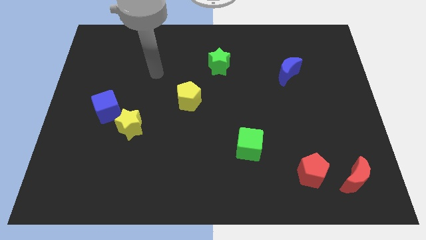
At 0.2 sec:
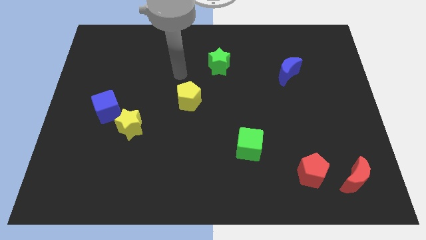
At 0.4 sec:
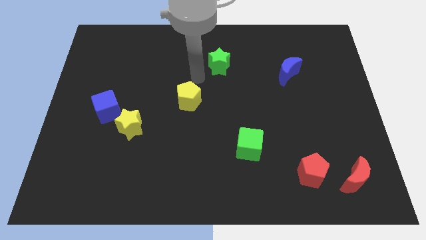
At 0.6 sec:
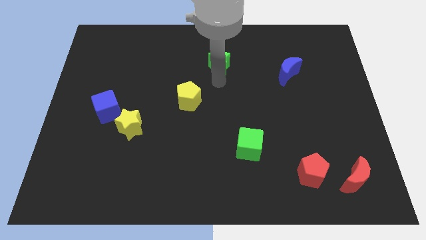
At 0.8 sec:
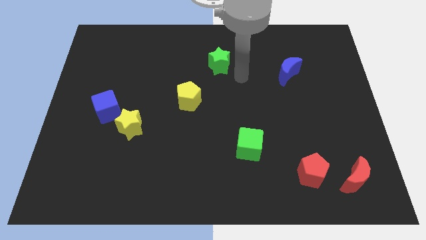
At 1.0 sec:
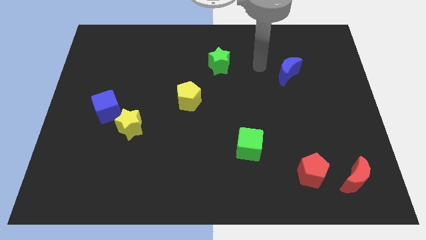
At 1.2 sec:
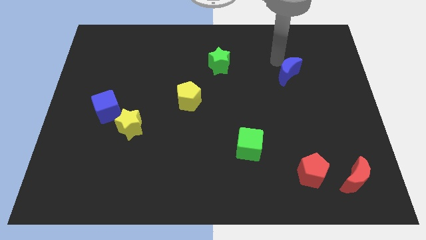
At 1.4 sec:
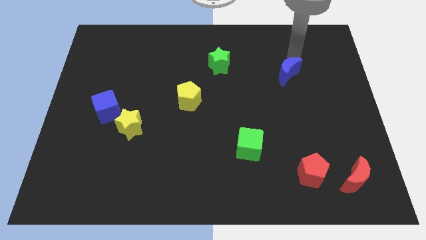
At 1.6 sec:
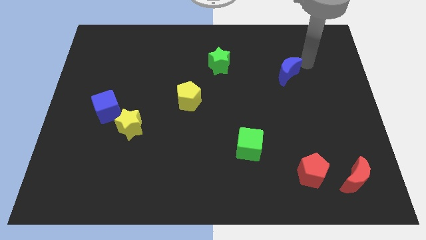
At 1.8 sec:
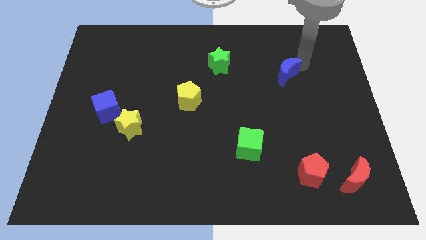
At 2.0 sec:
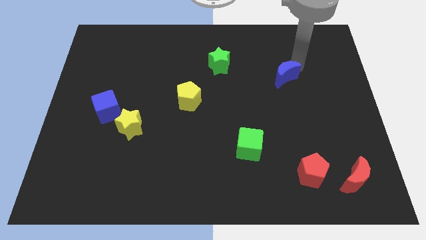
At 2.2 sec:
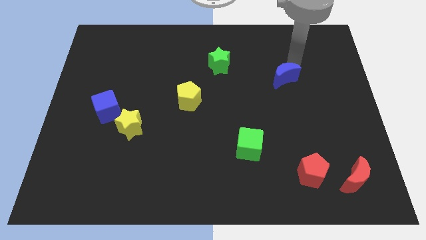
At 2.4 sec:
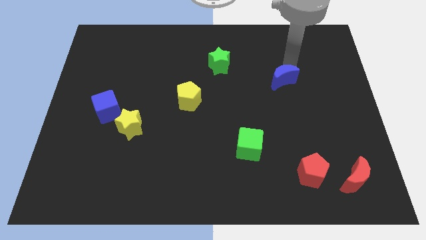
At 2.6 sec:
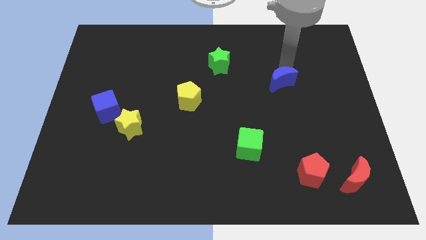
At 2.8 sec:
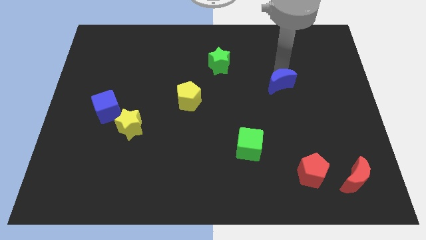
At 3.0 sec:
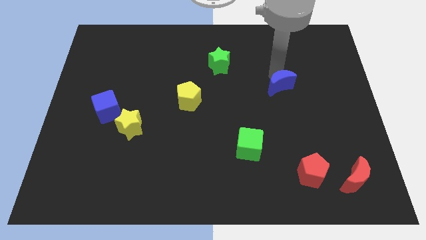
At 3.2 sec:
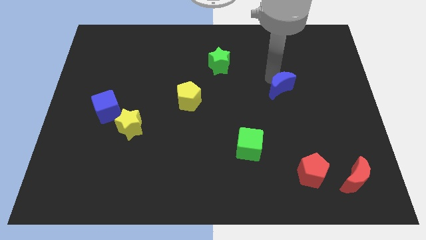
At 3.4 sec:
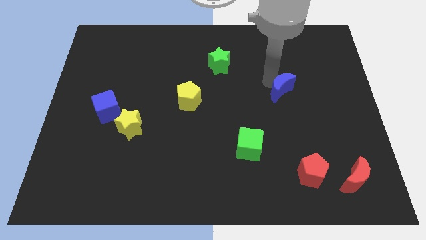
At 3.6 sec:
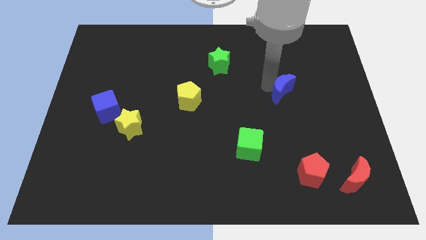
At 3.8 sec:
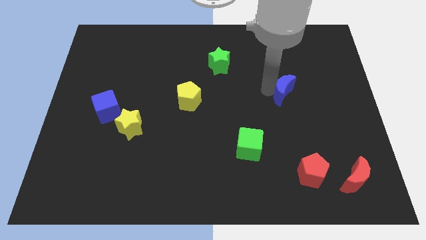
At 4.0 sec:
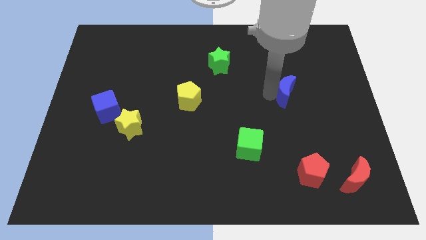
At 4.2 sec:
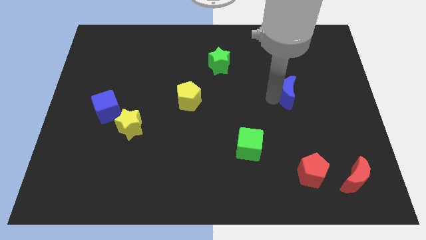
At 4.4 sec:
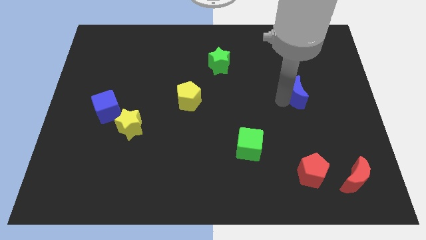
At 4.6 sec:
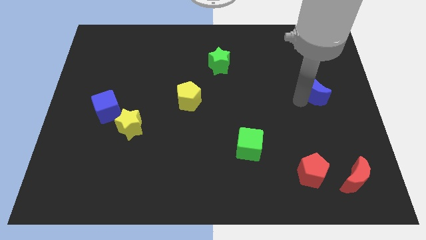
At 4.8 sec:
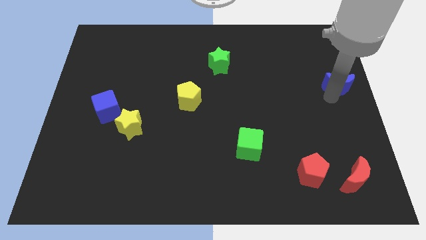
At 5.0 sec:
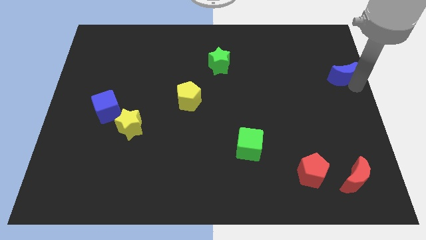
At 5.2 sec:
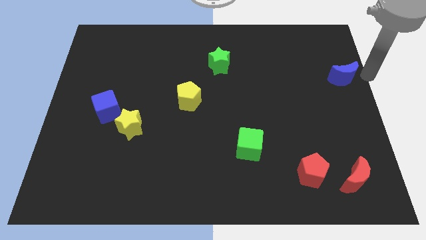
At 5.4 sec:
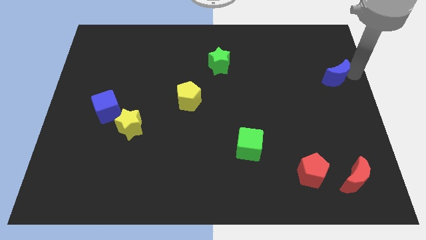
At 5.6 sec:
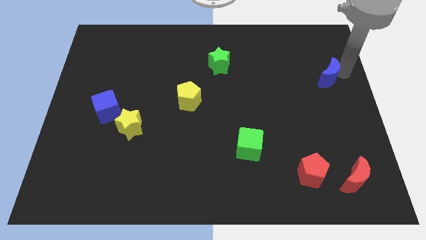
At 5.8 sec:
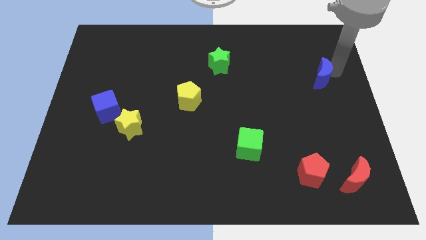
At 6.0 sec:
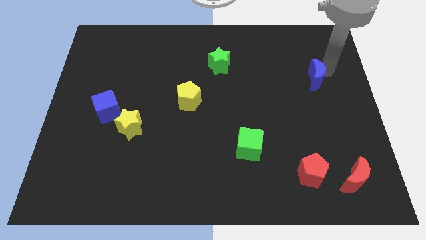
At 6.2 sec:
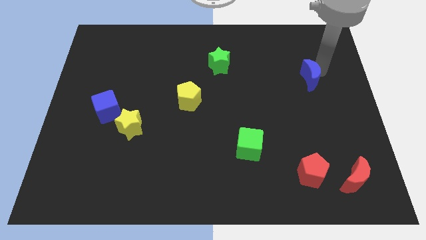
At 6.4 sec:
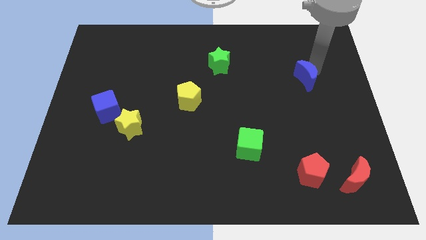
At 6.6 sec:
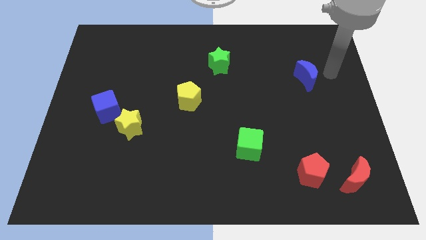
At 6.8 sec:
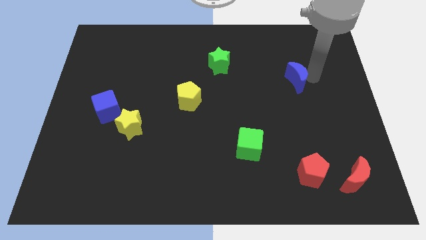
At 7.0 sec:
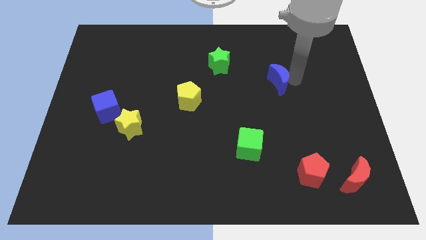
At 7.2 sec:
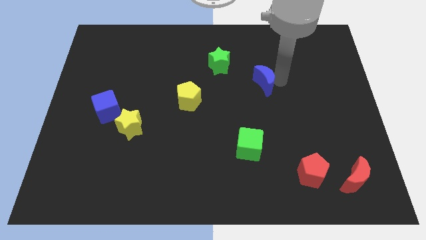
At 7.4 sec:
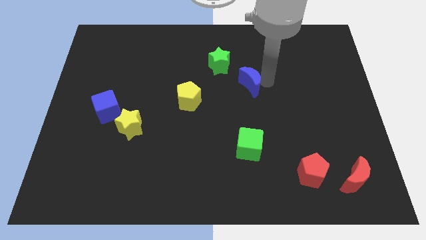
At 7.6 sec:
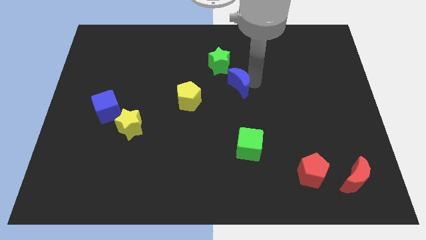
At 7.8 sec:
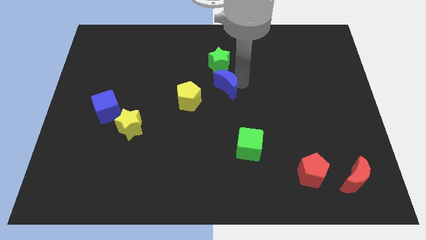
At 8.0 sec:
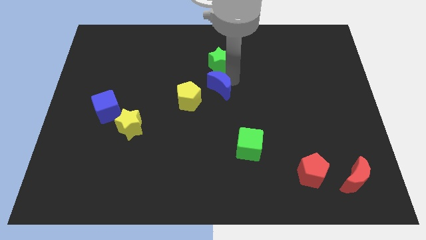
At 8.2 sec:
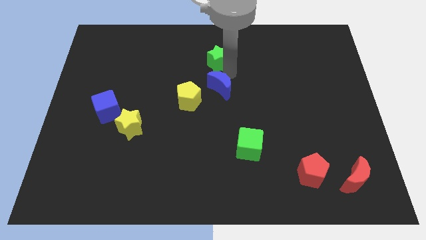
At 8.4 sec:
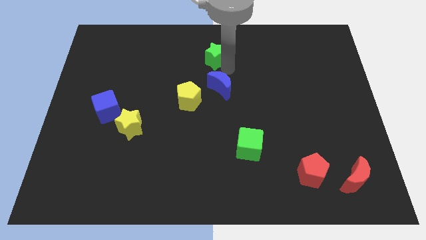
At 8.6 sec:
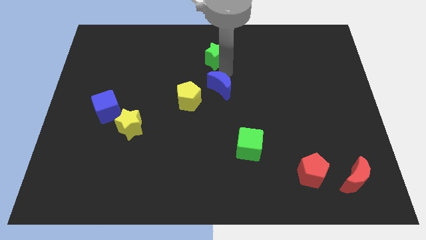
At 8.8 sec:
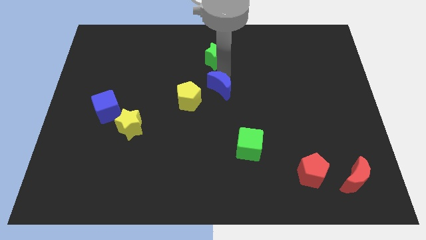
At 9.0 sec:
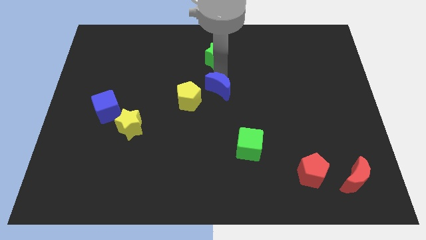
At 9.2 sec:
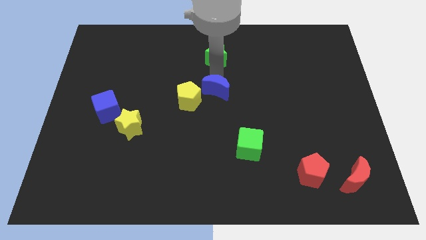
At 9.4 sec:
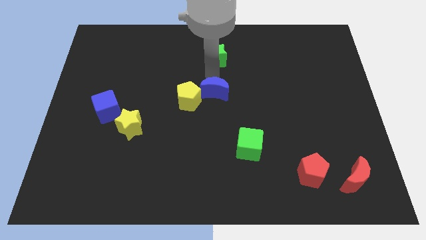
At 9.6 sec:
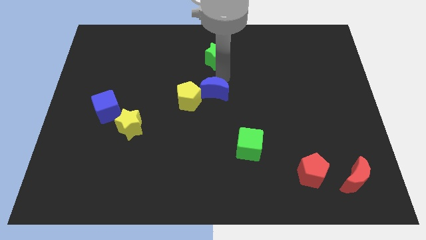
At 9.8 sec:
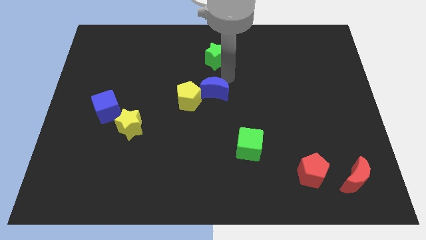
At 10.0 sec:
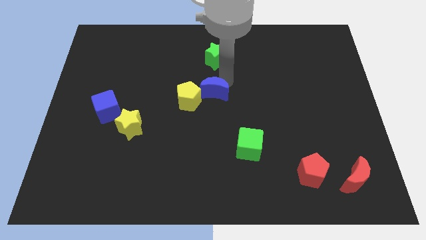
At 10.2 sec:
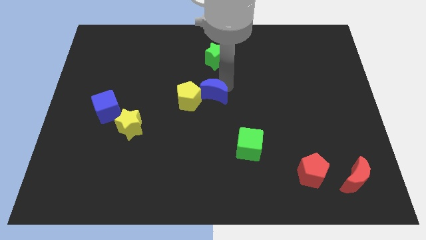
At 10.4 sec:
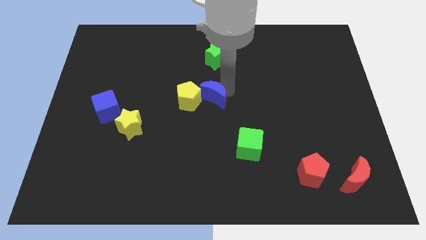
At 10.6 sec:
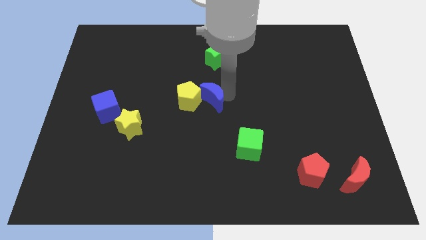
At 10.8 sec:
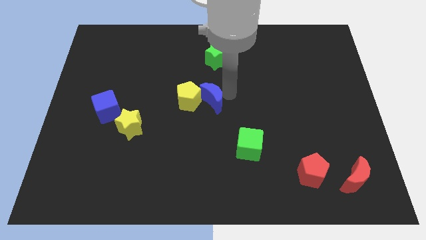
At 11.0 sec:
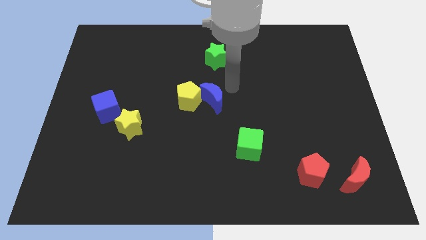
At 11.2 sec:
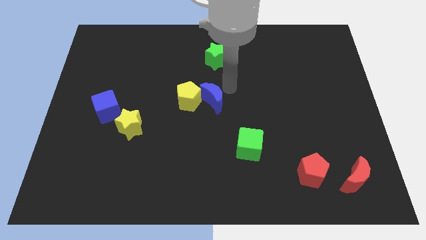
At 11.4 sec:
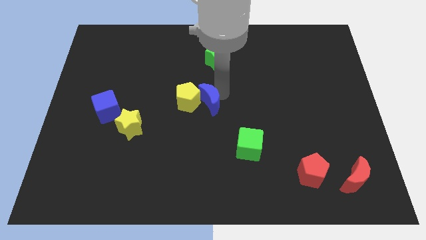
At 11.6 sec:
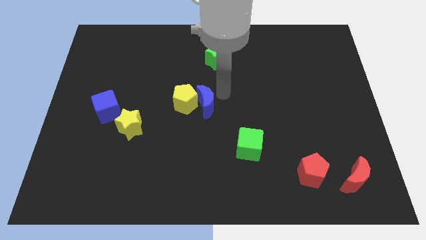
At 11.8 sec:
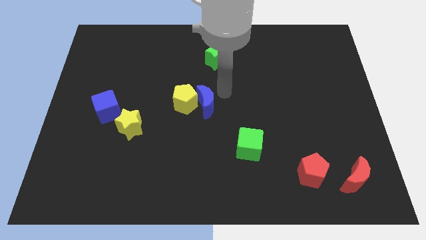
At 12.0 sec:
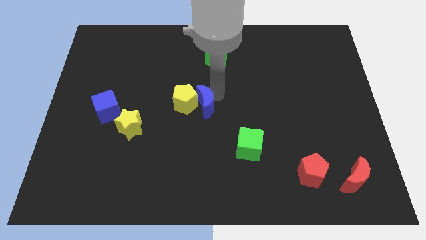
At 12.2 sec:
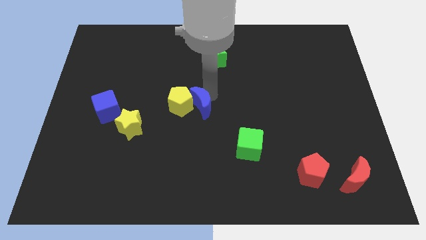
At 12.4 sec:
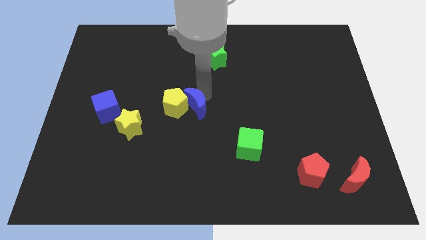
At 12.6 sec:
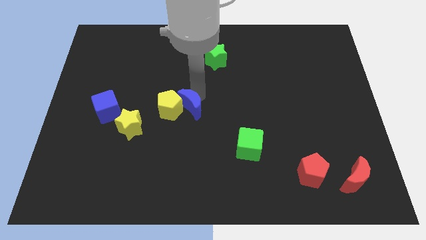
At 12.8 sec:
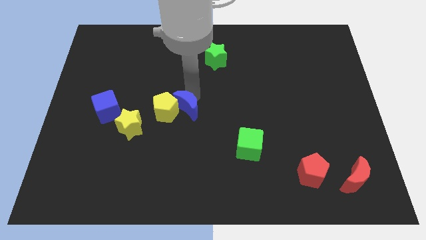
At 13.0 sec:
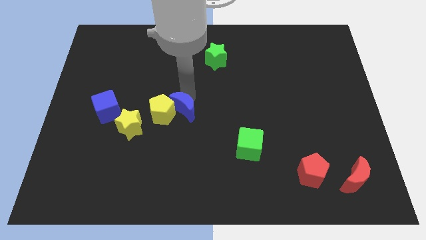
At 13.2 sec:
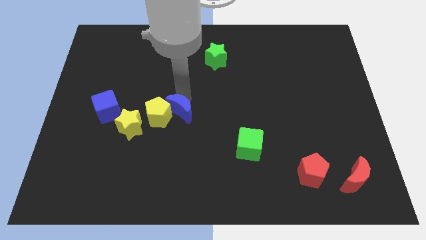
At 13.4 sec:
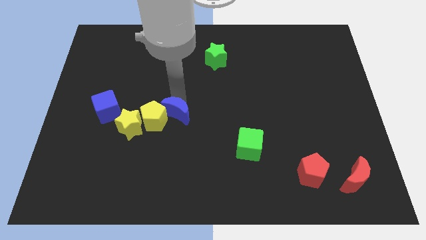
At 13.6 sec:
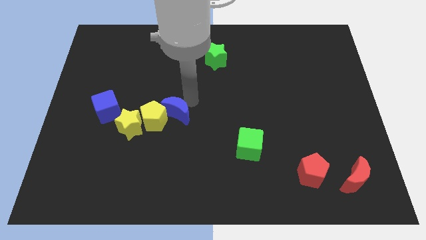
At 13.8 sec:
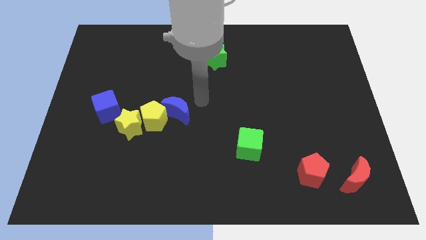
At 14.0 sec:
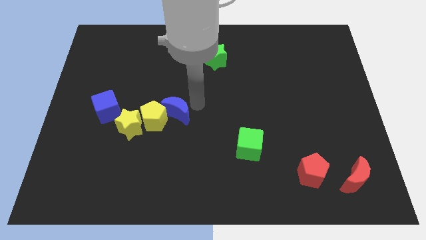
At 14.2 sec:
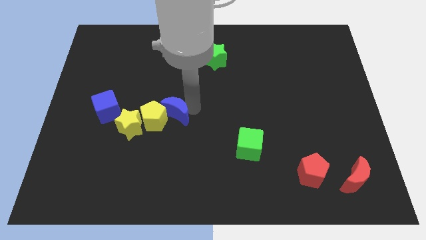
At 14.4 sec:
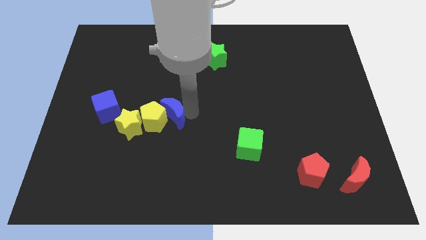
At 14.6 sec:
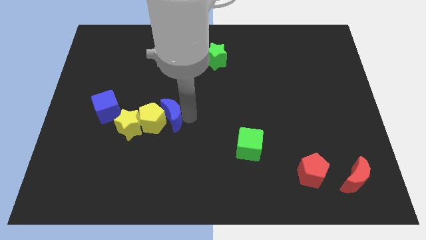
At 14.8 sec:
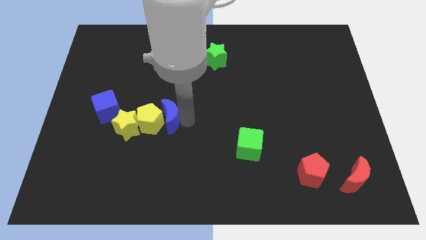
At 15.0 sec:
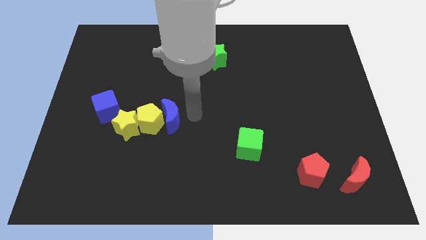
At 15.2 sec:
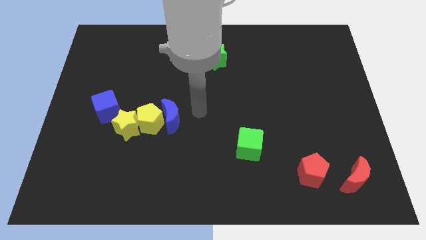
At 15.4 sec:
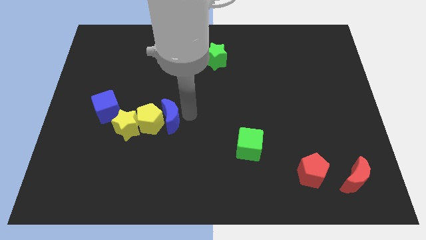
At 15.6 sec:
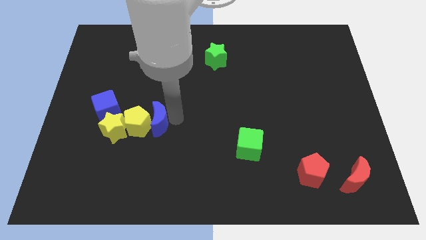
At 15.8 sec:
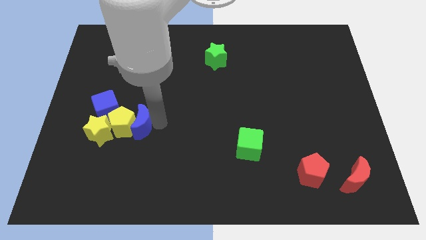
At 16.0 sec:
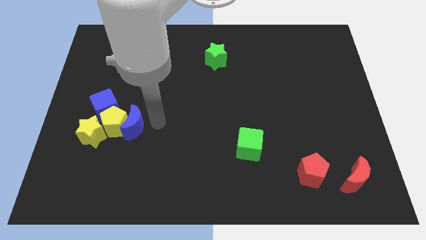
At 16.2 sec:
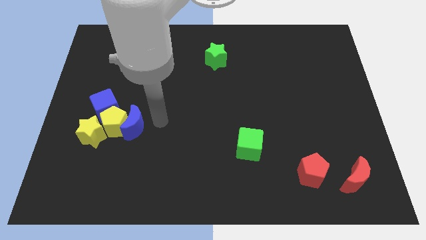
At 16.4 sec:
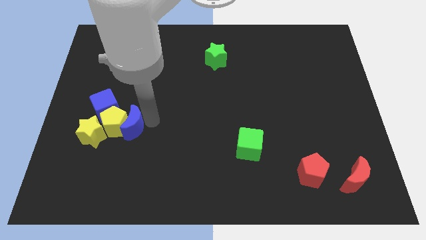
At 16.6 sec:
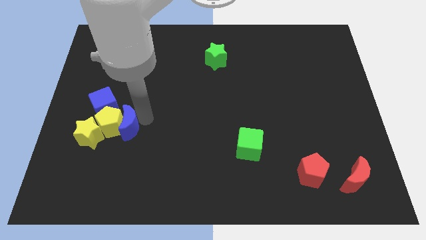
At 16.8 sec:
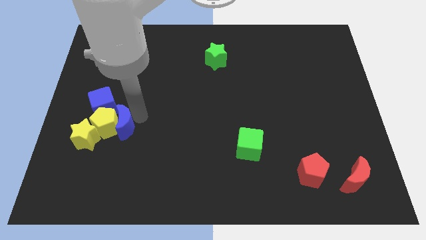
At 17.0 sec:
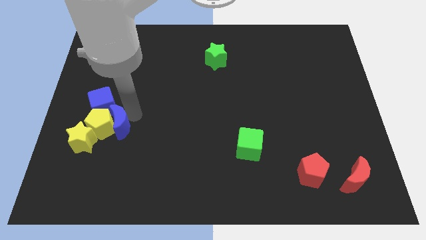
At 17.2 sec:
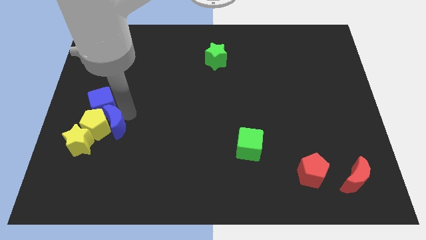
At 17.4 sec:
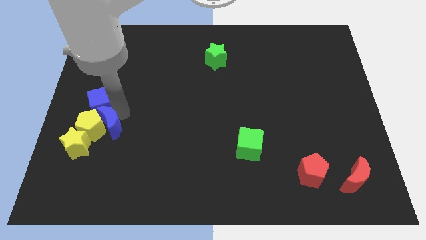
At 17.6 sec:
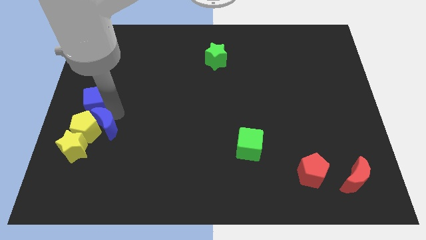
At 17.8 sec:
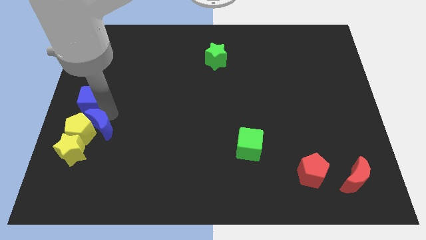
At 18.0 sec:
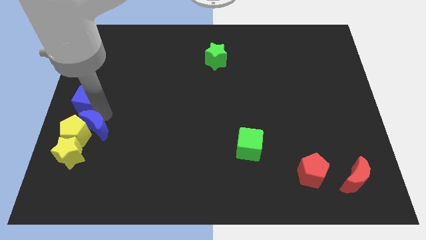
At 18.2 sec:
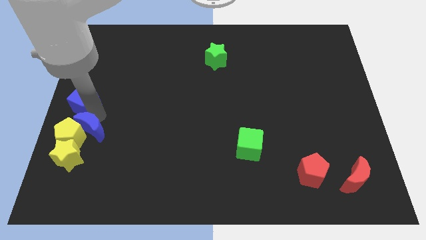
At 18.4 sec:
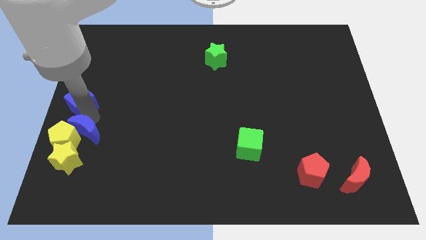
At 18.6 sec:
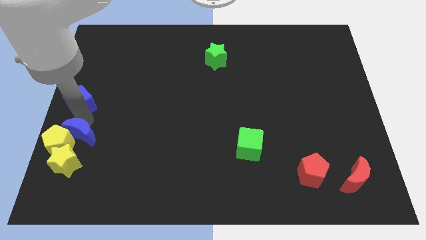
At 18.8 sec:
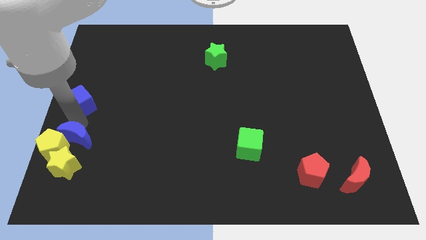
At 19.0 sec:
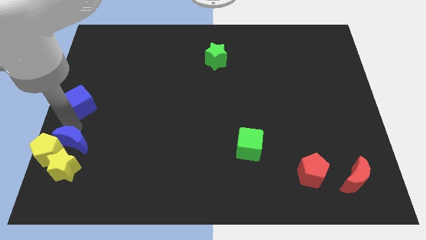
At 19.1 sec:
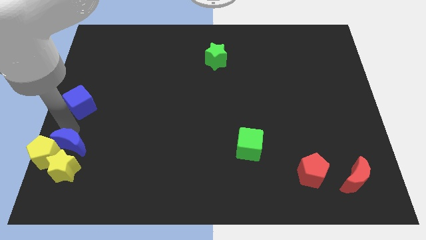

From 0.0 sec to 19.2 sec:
move the blue moon next to the yellow star
